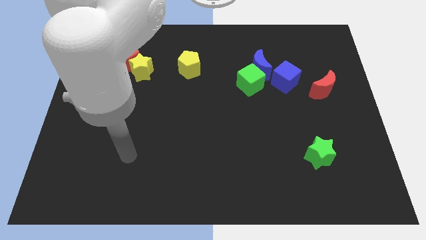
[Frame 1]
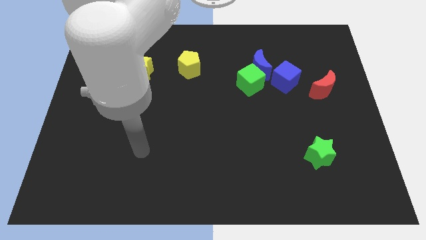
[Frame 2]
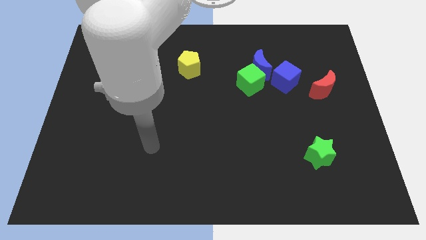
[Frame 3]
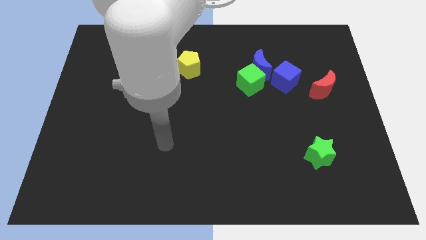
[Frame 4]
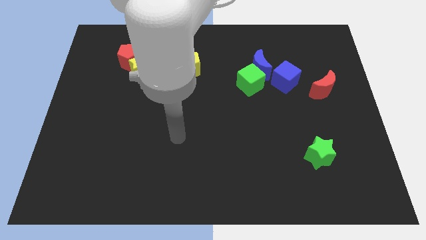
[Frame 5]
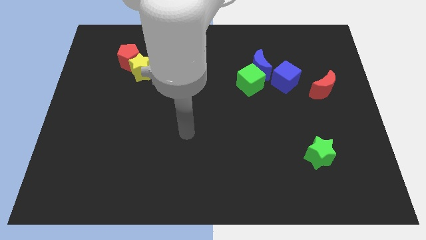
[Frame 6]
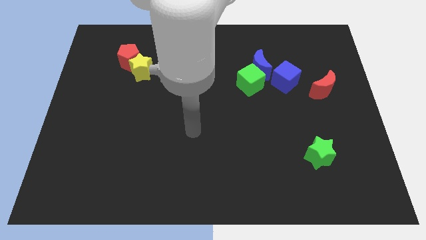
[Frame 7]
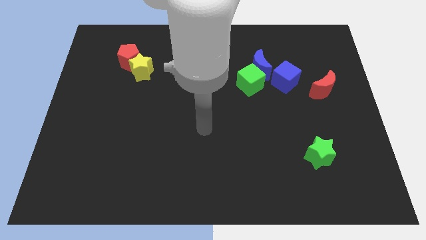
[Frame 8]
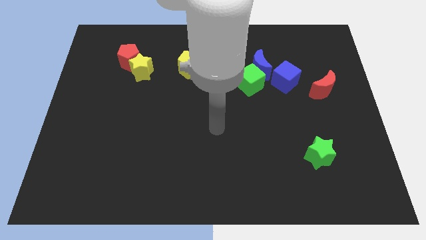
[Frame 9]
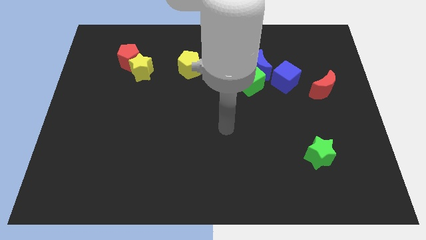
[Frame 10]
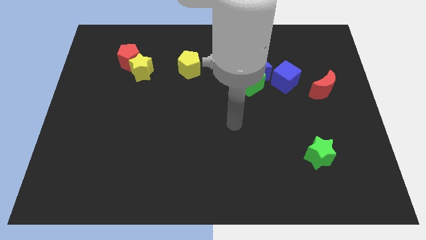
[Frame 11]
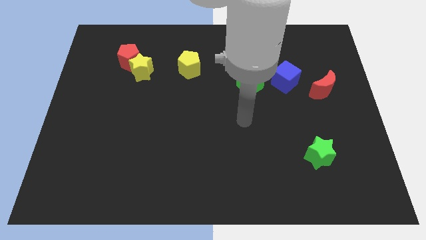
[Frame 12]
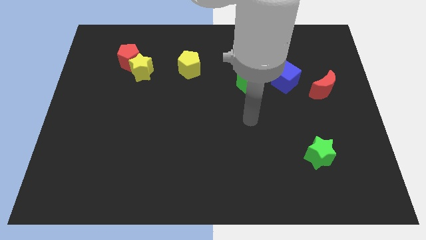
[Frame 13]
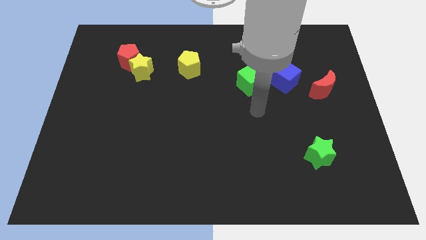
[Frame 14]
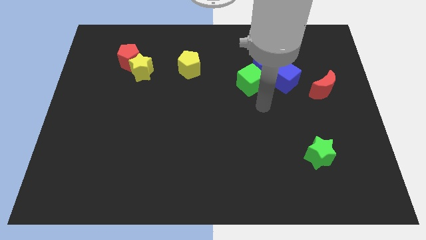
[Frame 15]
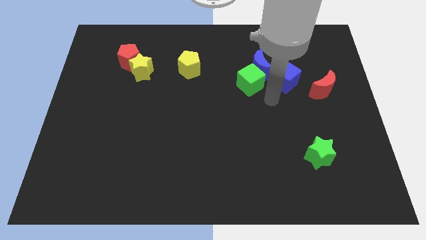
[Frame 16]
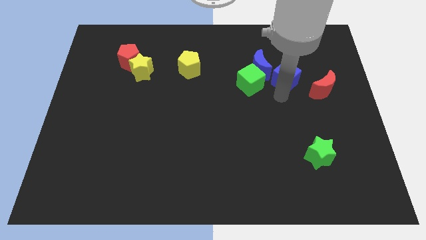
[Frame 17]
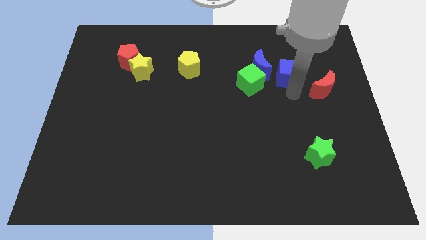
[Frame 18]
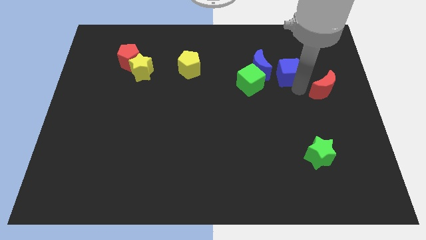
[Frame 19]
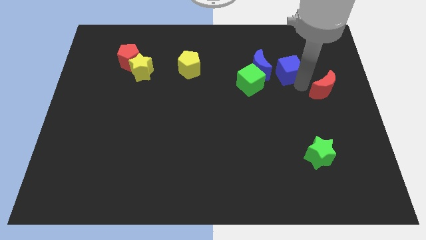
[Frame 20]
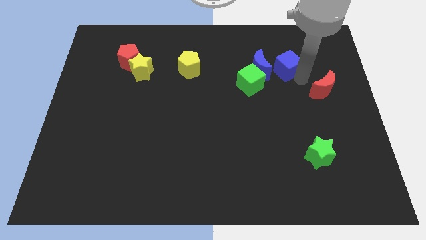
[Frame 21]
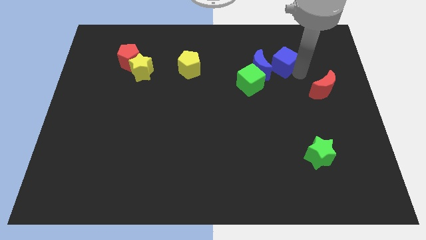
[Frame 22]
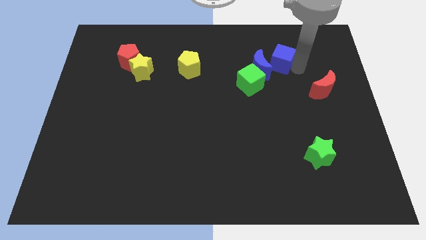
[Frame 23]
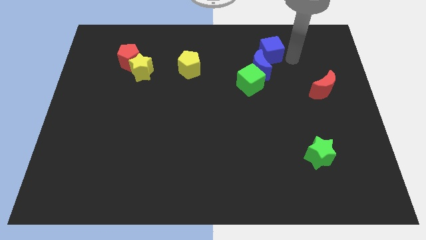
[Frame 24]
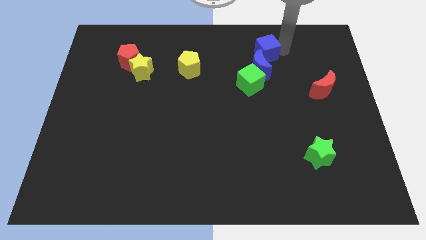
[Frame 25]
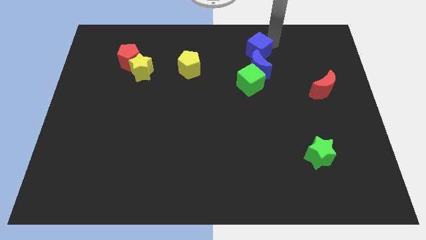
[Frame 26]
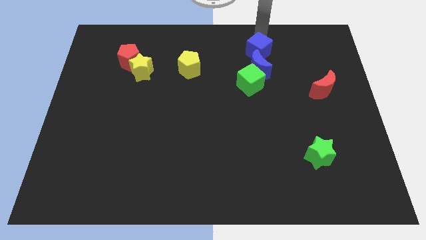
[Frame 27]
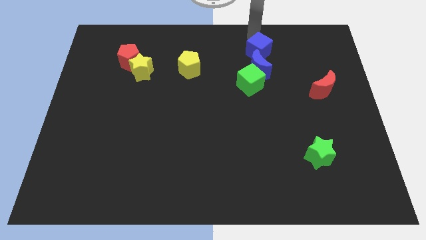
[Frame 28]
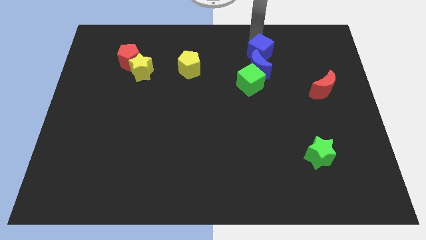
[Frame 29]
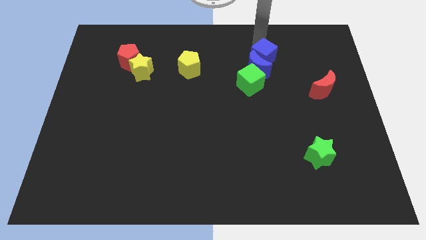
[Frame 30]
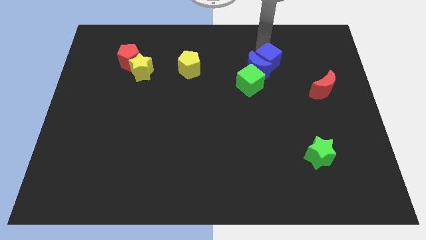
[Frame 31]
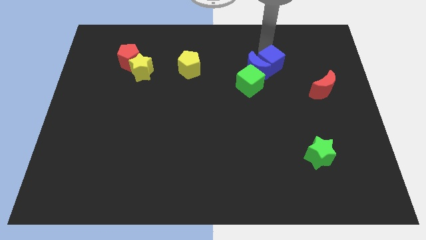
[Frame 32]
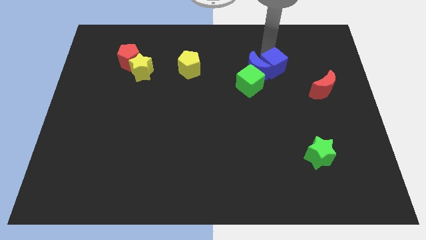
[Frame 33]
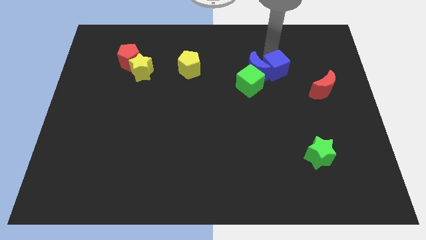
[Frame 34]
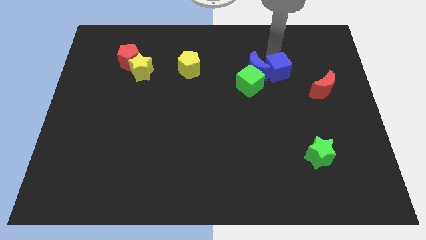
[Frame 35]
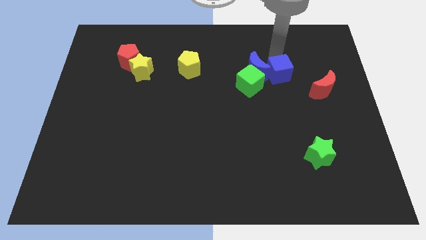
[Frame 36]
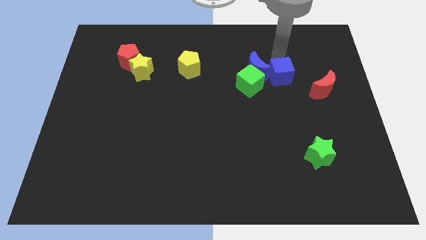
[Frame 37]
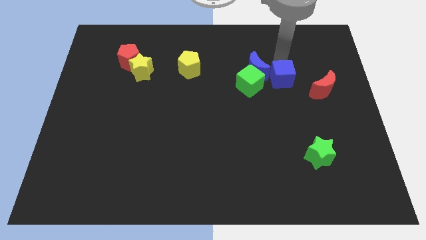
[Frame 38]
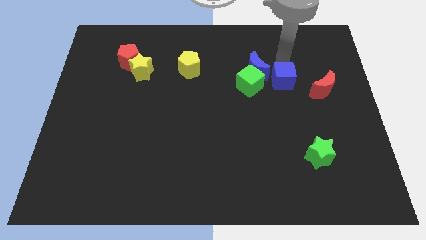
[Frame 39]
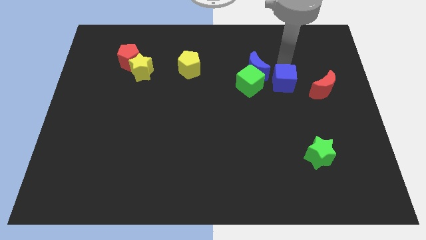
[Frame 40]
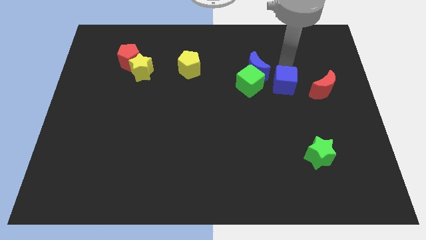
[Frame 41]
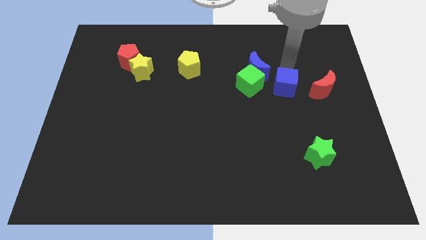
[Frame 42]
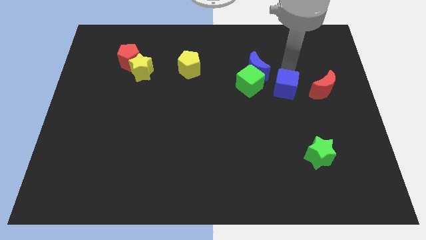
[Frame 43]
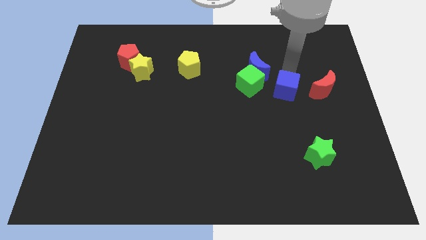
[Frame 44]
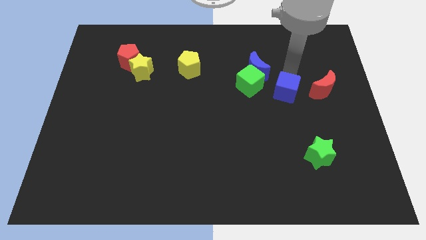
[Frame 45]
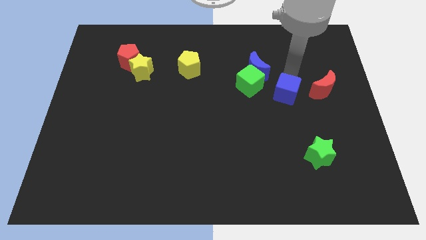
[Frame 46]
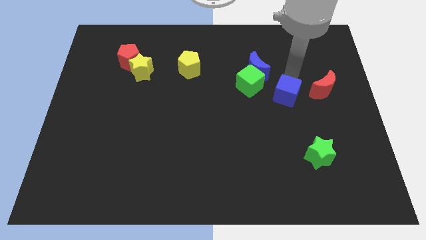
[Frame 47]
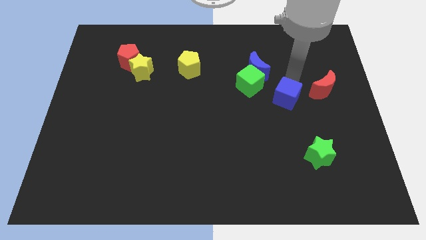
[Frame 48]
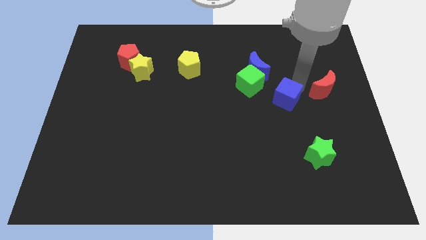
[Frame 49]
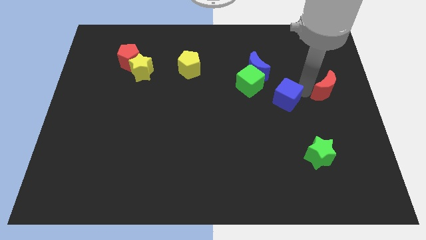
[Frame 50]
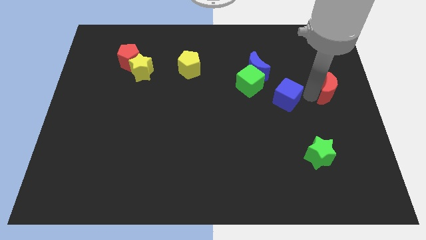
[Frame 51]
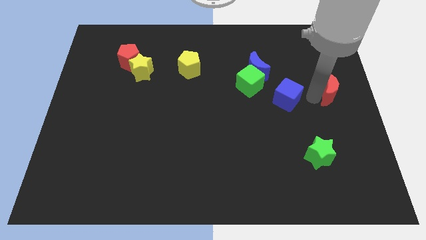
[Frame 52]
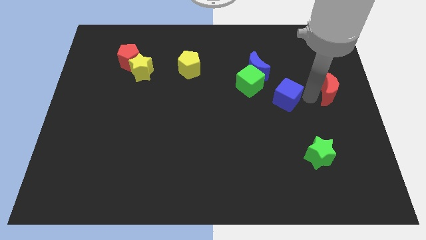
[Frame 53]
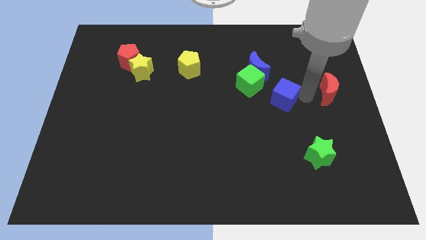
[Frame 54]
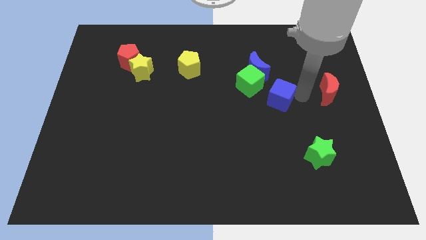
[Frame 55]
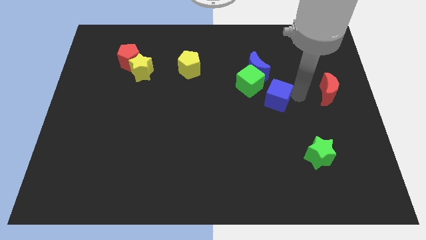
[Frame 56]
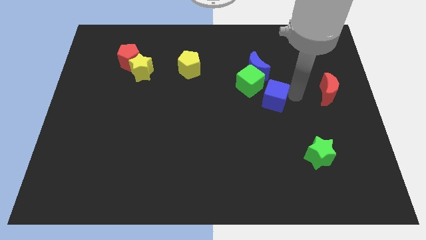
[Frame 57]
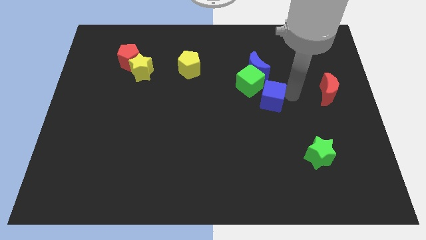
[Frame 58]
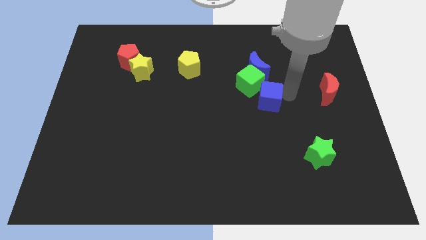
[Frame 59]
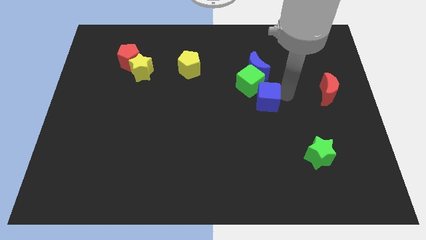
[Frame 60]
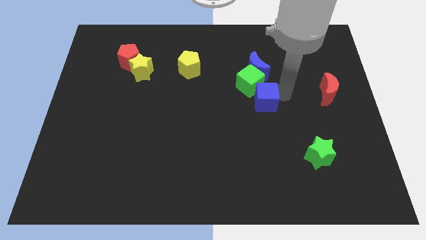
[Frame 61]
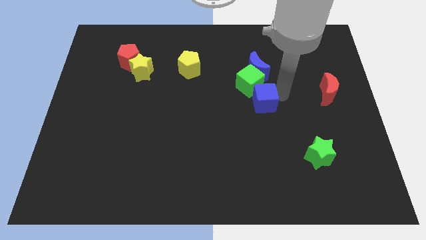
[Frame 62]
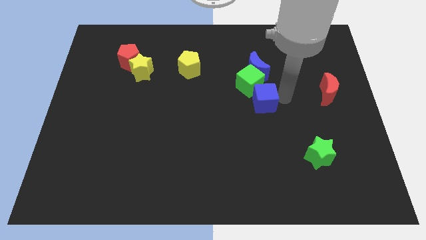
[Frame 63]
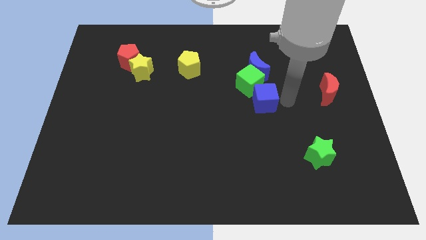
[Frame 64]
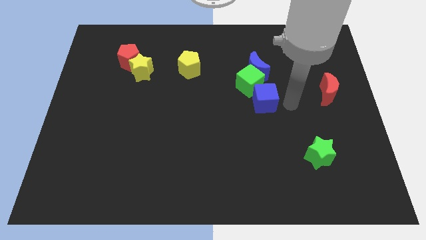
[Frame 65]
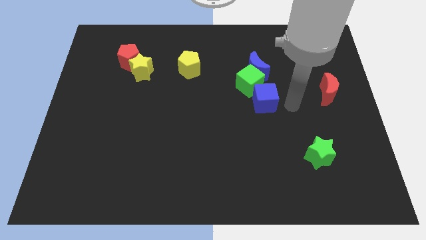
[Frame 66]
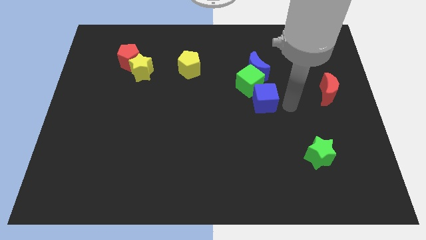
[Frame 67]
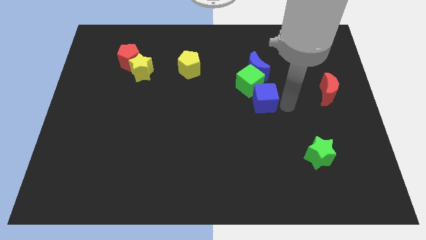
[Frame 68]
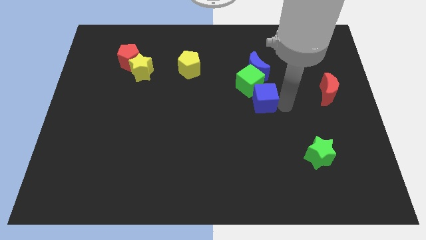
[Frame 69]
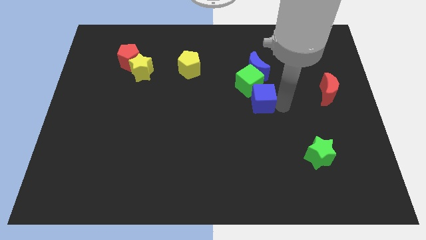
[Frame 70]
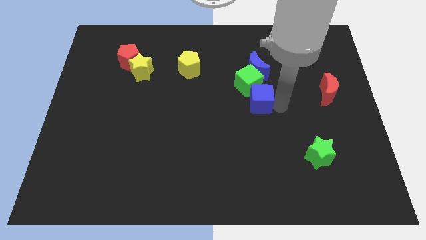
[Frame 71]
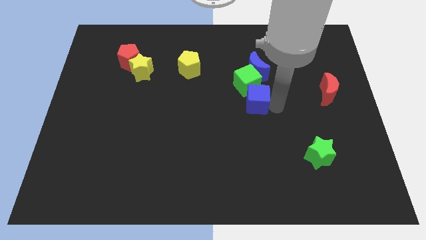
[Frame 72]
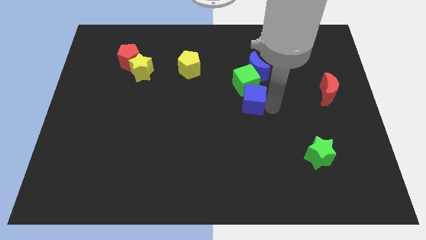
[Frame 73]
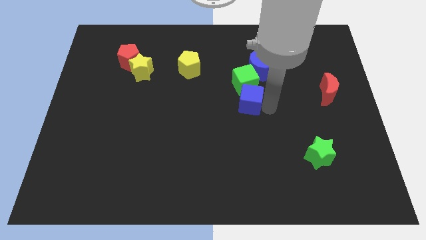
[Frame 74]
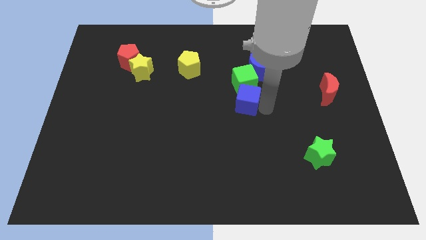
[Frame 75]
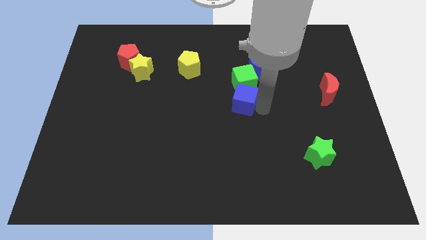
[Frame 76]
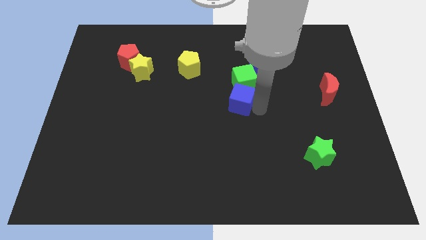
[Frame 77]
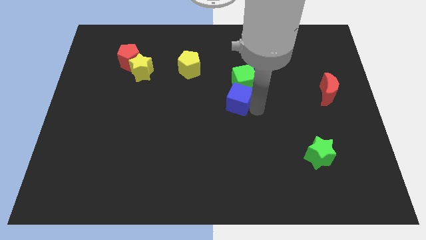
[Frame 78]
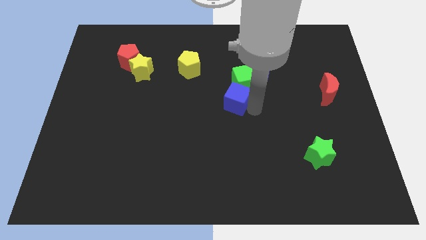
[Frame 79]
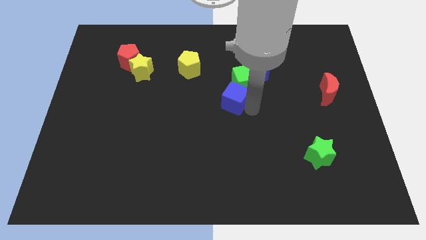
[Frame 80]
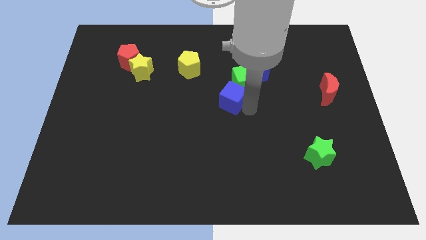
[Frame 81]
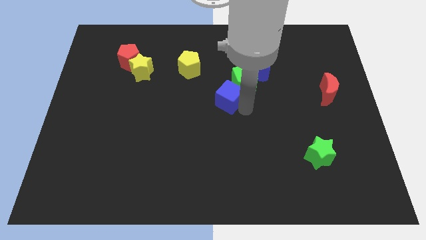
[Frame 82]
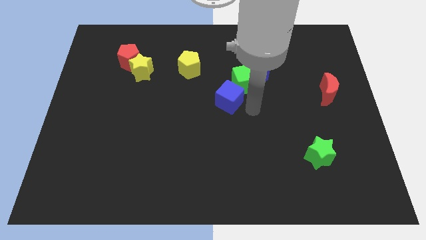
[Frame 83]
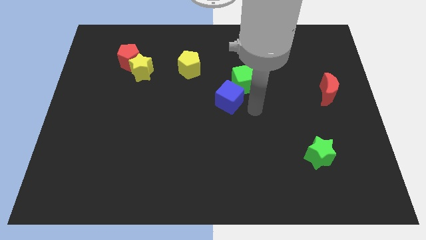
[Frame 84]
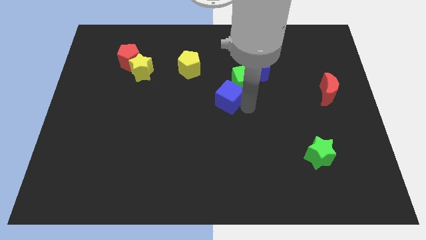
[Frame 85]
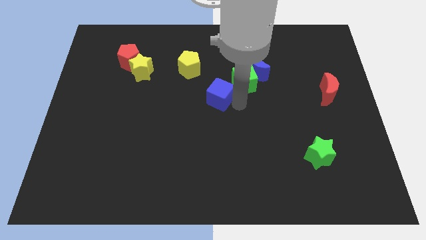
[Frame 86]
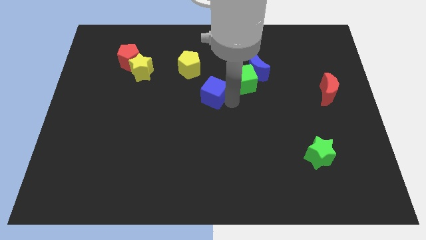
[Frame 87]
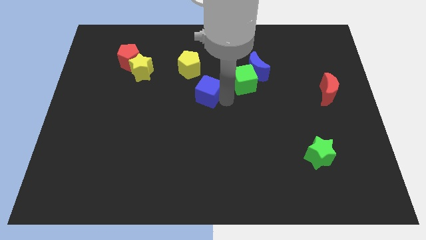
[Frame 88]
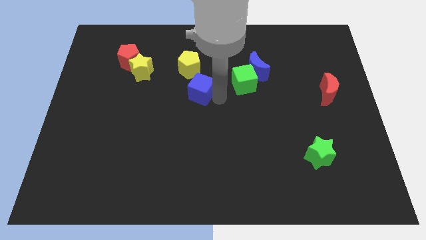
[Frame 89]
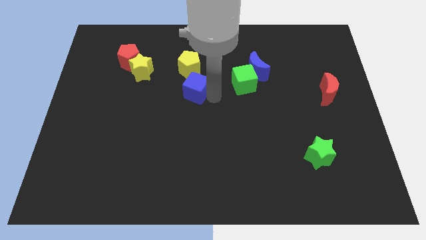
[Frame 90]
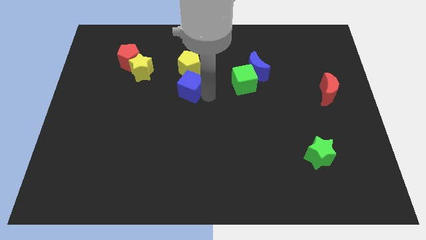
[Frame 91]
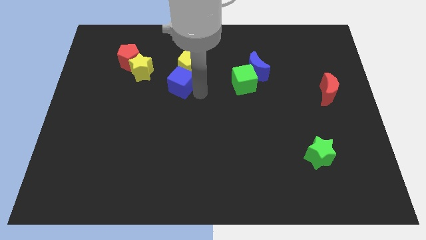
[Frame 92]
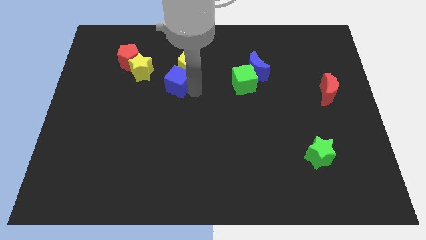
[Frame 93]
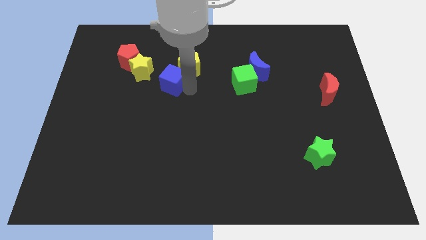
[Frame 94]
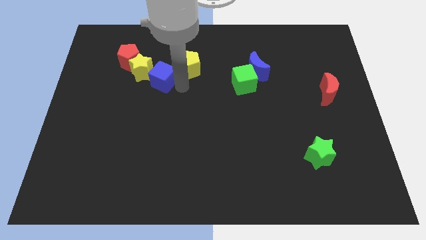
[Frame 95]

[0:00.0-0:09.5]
slide the blue cube to the yellow star
